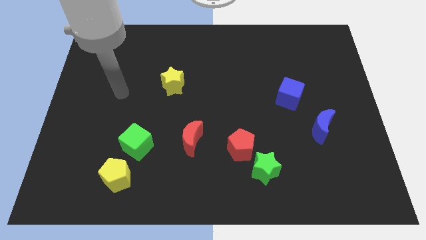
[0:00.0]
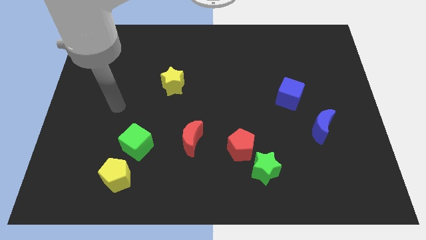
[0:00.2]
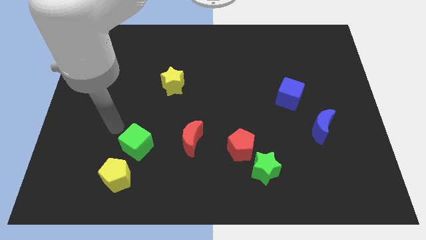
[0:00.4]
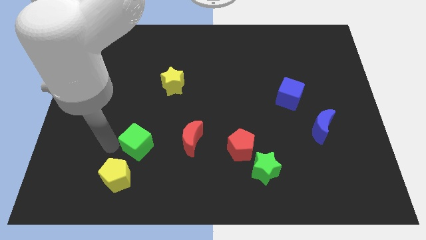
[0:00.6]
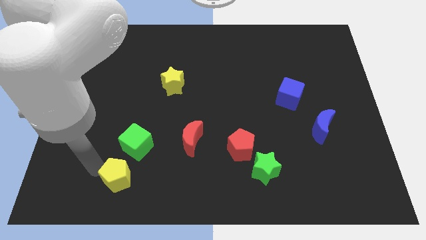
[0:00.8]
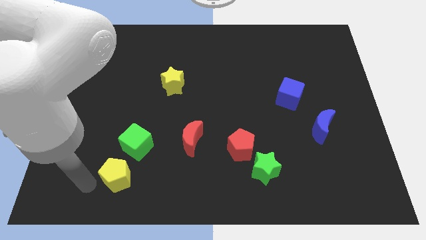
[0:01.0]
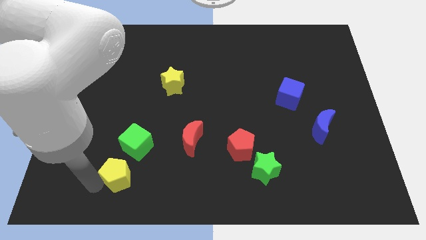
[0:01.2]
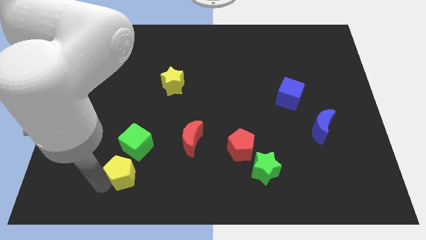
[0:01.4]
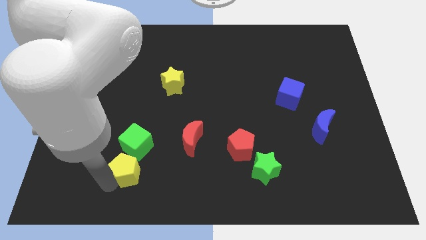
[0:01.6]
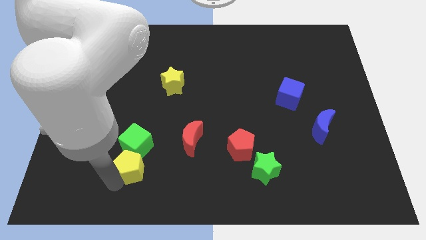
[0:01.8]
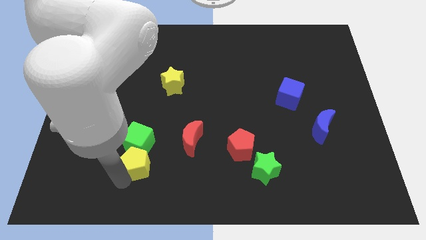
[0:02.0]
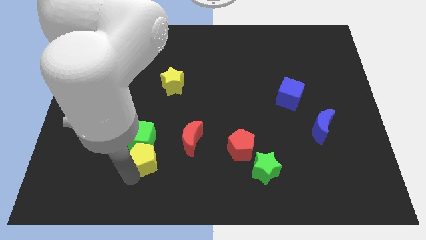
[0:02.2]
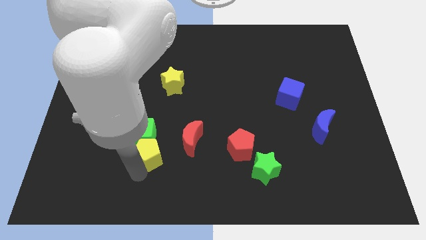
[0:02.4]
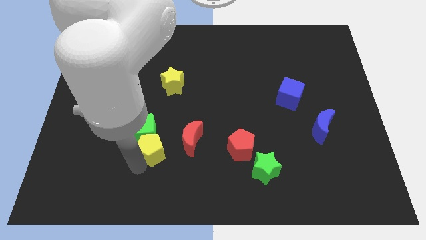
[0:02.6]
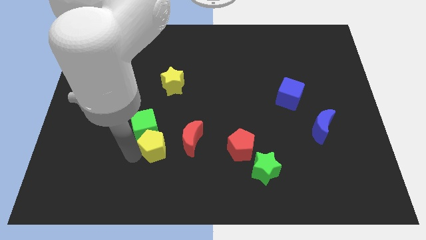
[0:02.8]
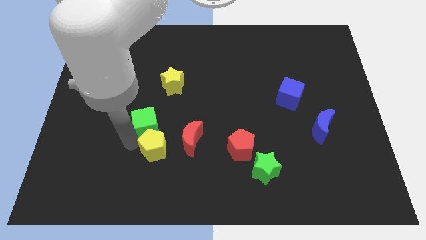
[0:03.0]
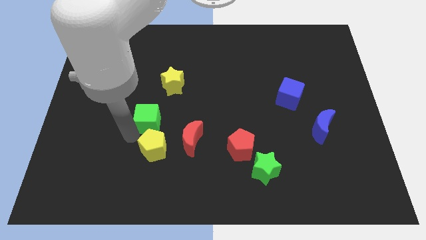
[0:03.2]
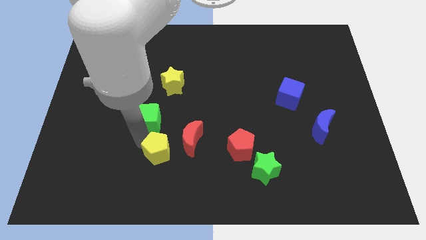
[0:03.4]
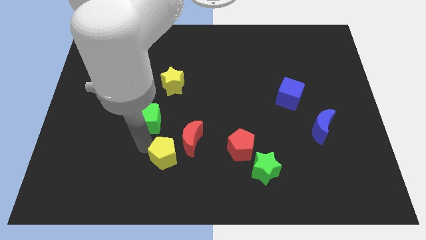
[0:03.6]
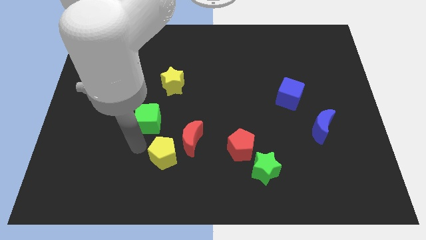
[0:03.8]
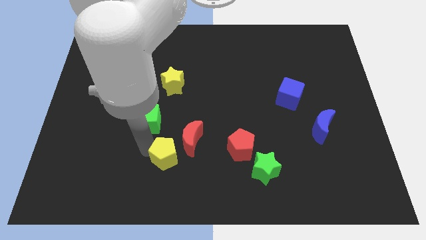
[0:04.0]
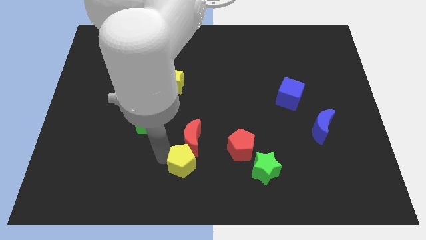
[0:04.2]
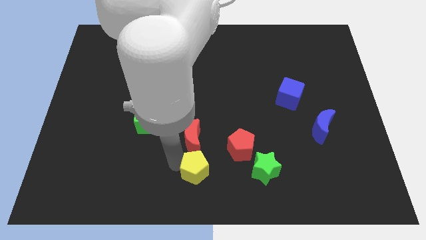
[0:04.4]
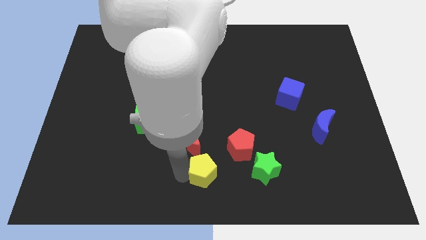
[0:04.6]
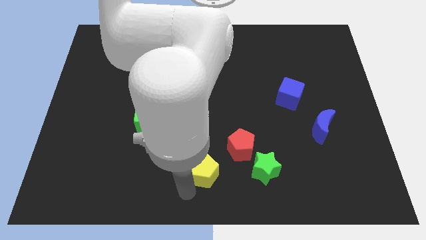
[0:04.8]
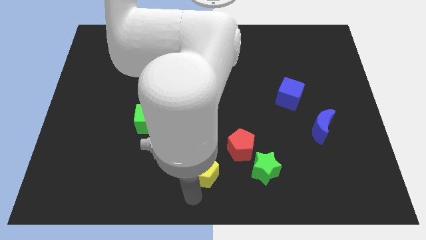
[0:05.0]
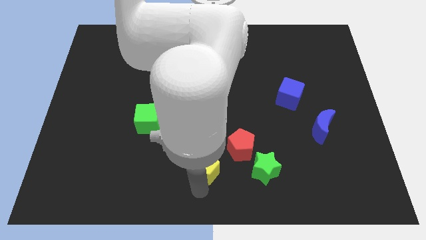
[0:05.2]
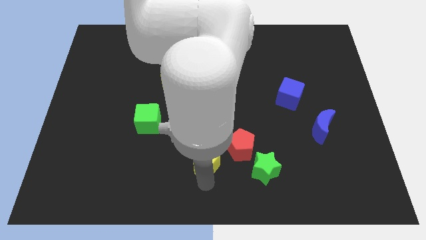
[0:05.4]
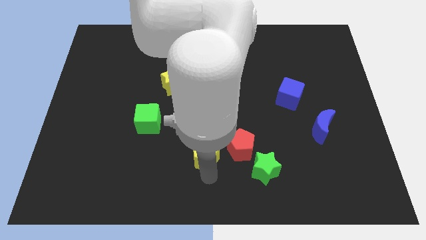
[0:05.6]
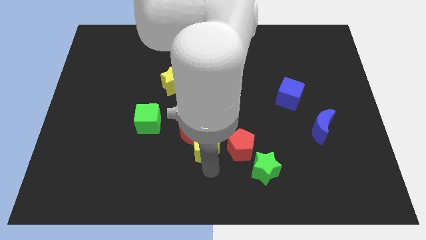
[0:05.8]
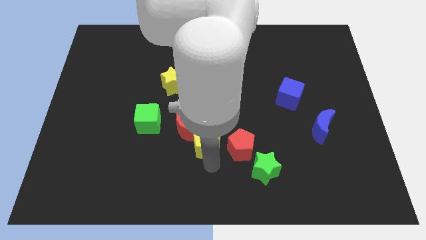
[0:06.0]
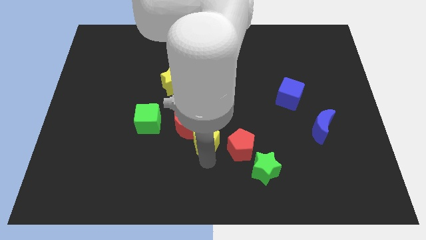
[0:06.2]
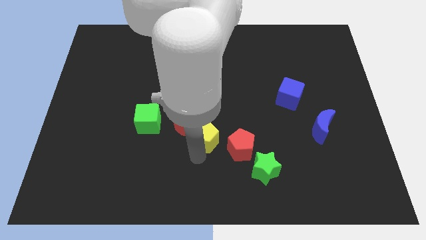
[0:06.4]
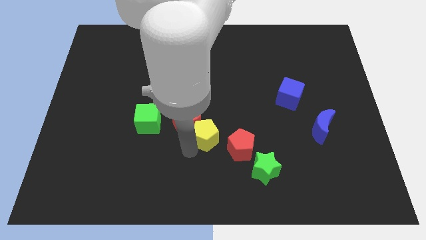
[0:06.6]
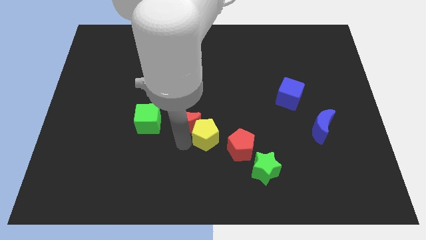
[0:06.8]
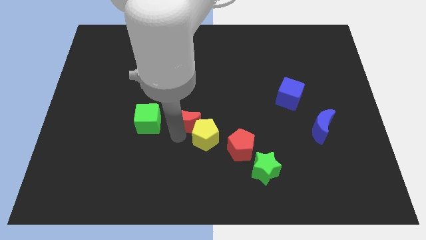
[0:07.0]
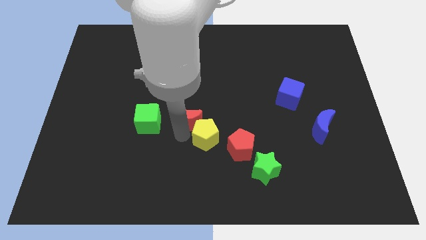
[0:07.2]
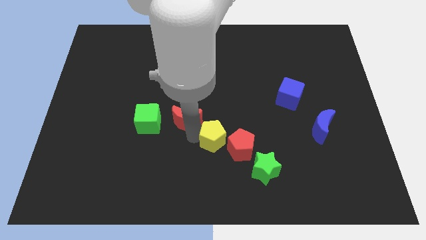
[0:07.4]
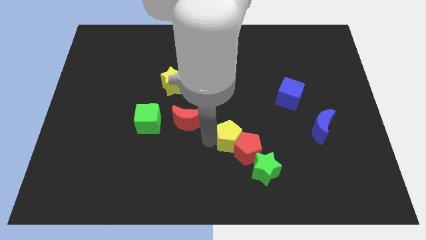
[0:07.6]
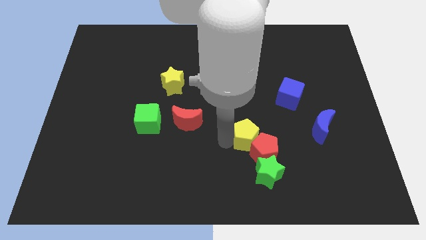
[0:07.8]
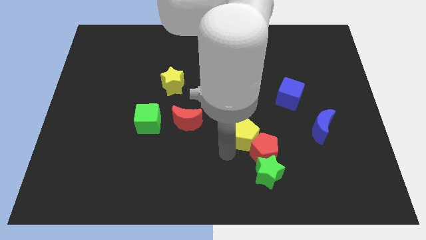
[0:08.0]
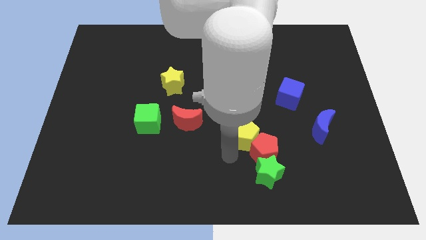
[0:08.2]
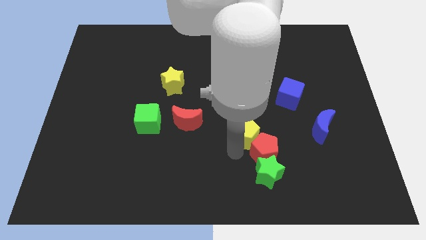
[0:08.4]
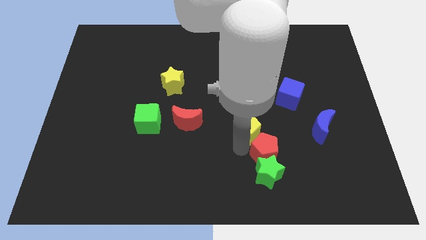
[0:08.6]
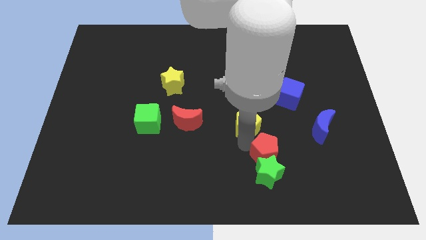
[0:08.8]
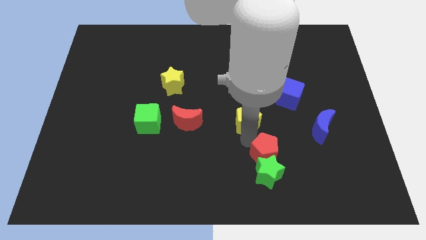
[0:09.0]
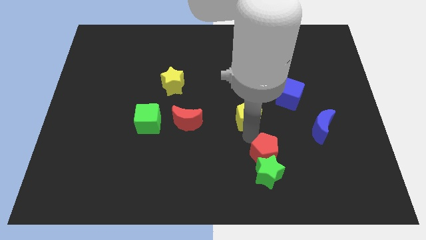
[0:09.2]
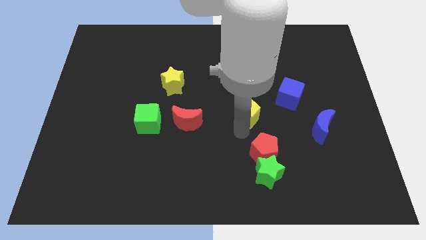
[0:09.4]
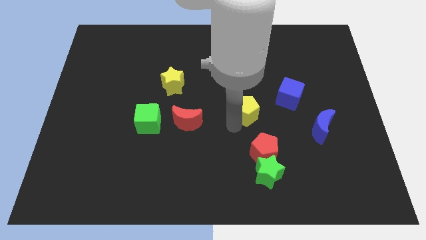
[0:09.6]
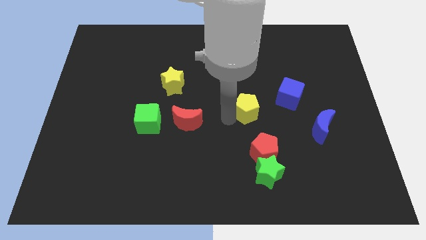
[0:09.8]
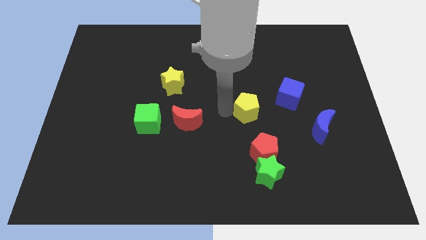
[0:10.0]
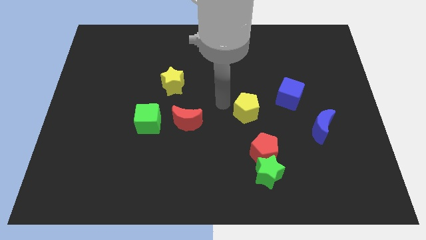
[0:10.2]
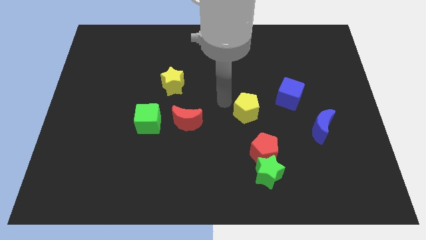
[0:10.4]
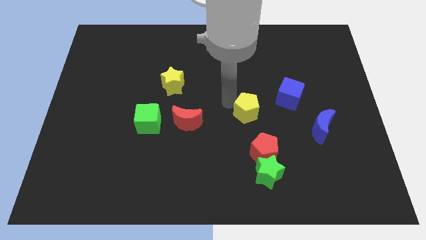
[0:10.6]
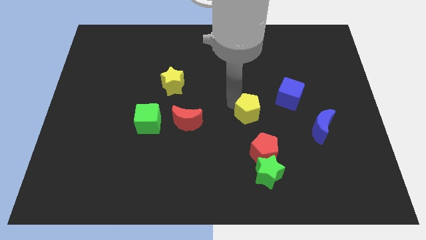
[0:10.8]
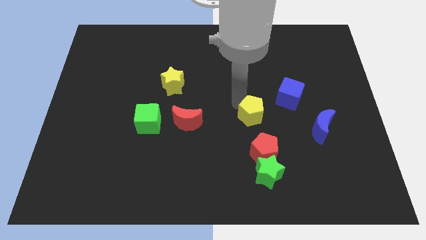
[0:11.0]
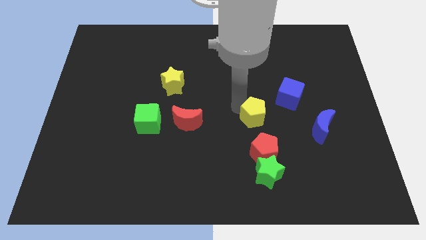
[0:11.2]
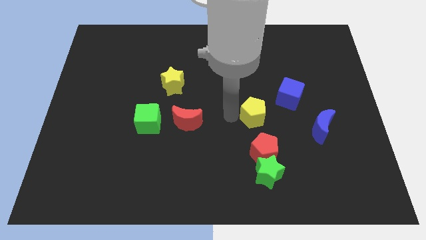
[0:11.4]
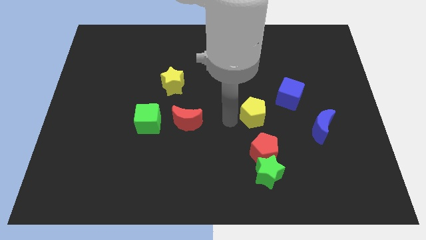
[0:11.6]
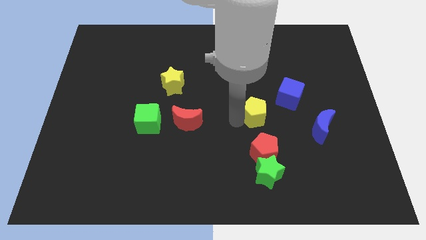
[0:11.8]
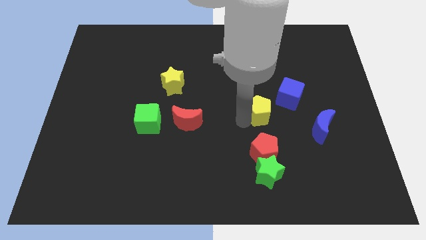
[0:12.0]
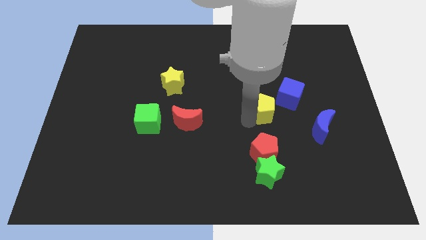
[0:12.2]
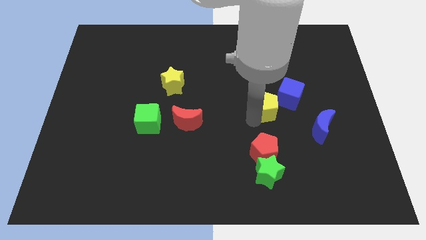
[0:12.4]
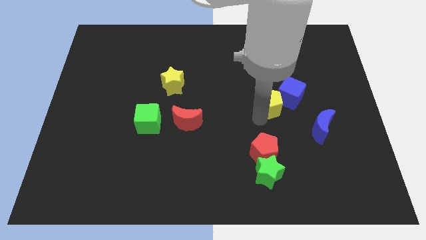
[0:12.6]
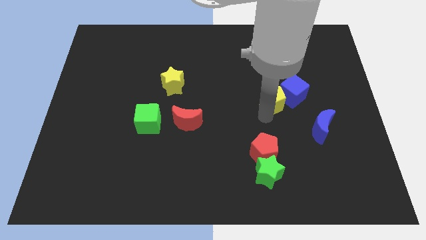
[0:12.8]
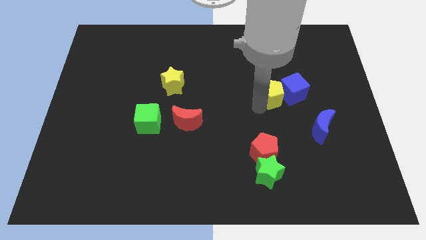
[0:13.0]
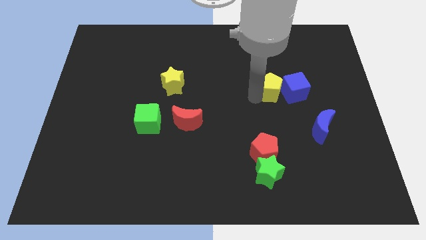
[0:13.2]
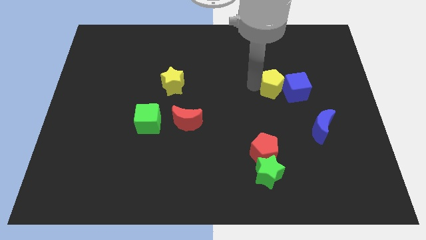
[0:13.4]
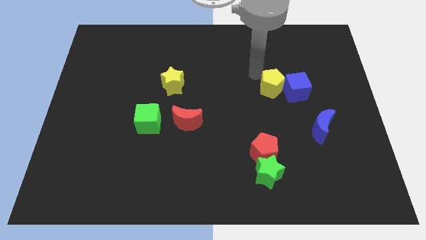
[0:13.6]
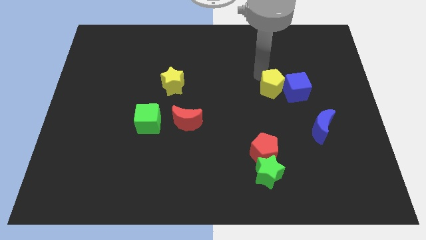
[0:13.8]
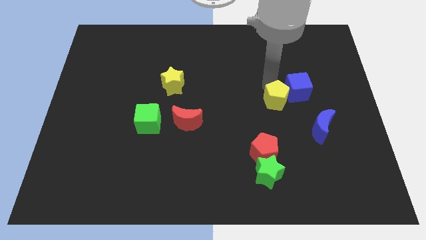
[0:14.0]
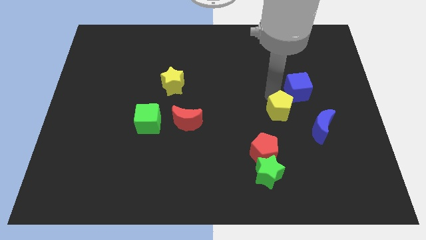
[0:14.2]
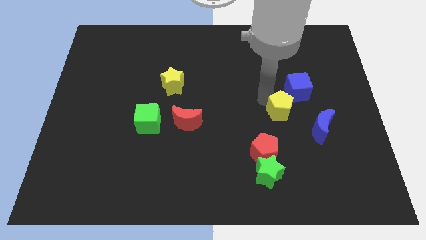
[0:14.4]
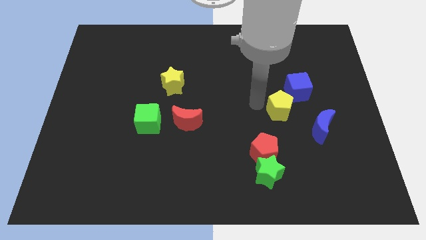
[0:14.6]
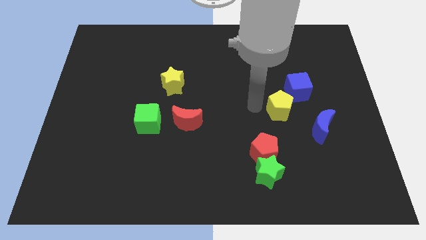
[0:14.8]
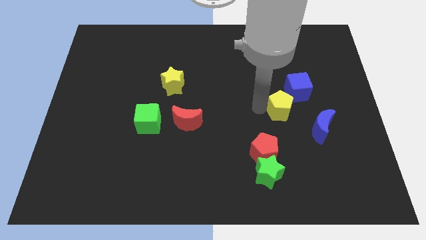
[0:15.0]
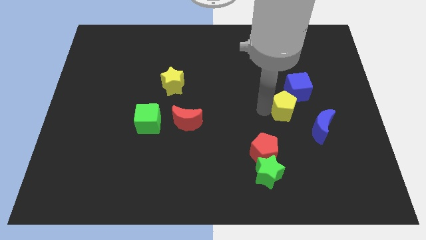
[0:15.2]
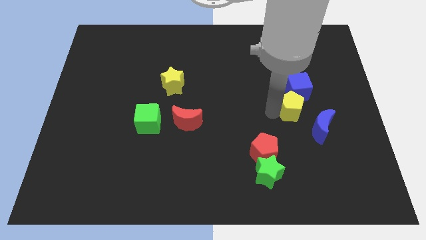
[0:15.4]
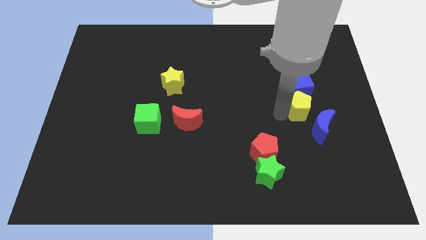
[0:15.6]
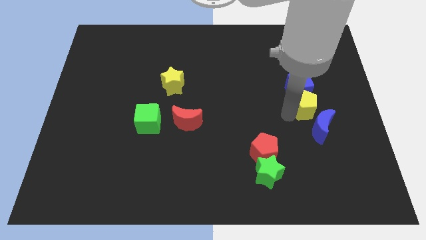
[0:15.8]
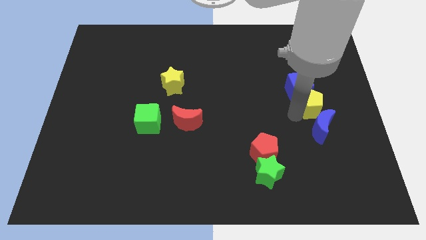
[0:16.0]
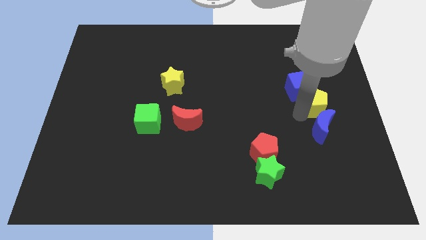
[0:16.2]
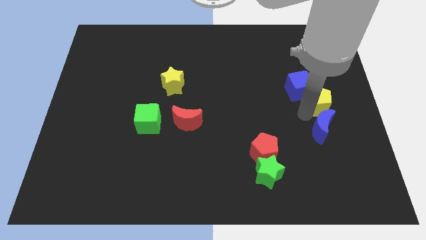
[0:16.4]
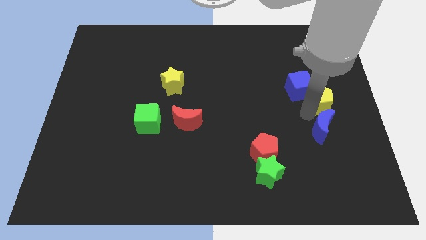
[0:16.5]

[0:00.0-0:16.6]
put the yellow pentagon to the center right
